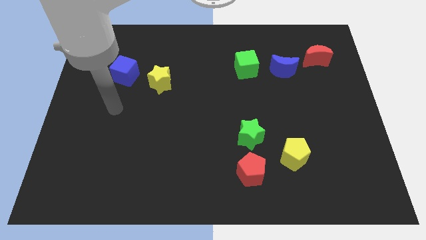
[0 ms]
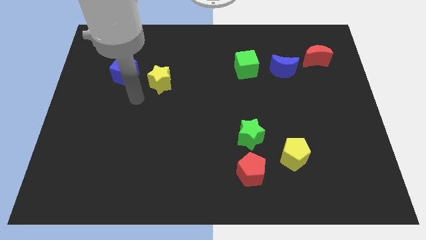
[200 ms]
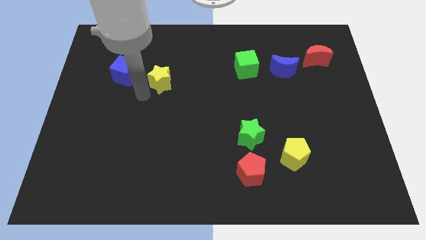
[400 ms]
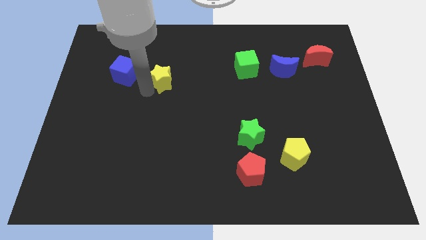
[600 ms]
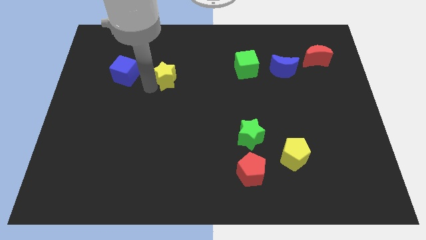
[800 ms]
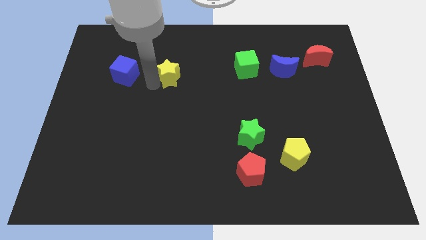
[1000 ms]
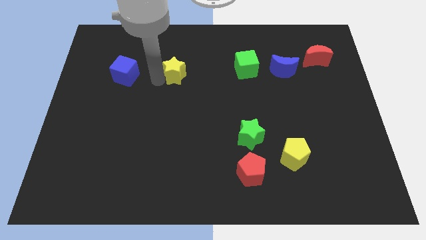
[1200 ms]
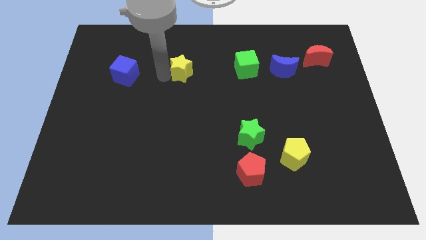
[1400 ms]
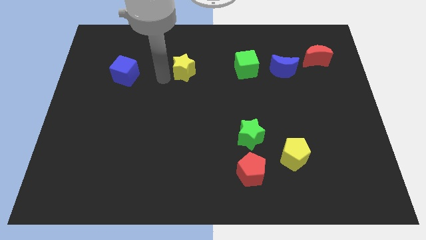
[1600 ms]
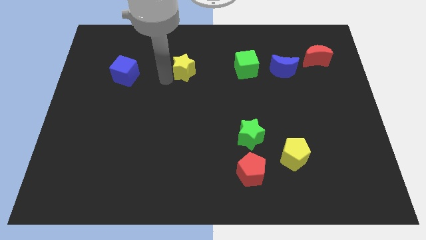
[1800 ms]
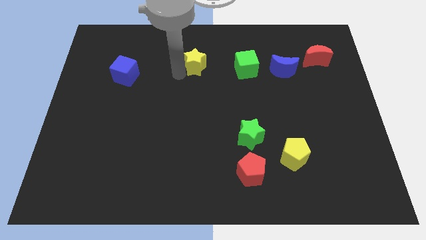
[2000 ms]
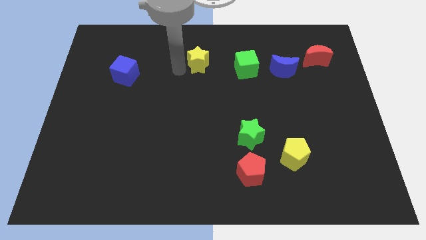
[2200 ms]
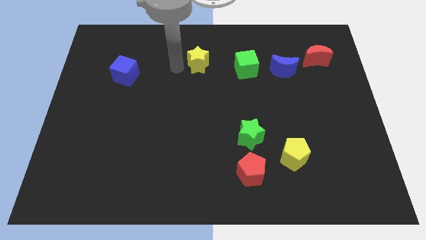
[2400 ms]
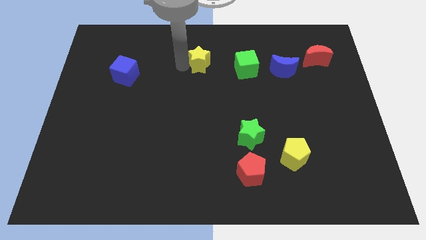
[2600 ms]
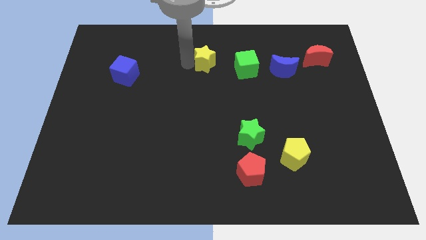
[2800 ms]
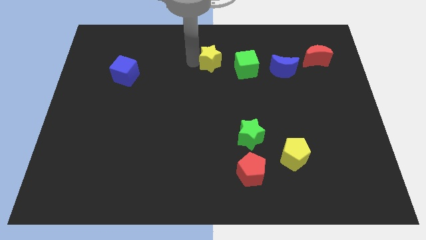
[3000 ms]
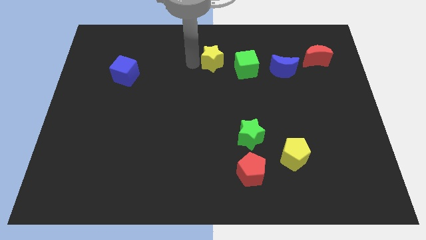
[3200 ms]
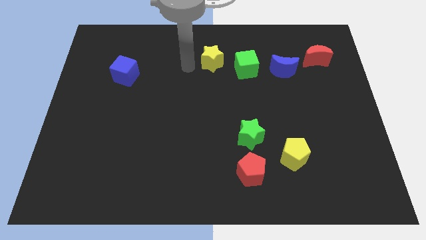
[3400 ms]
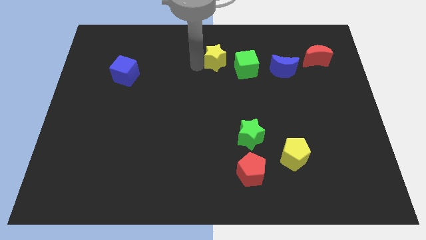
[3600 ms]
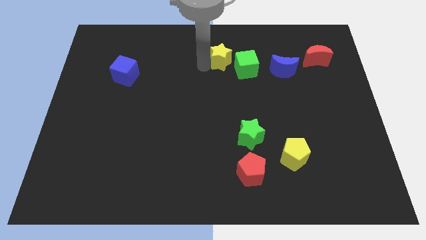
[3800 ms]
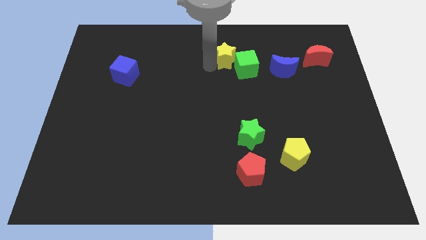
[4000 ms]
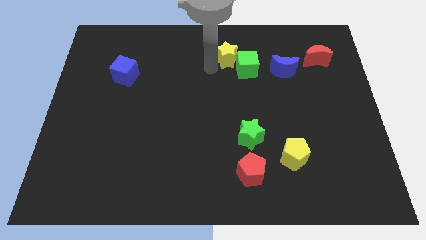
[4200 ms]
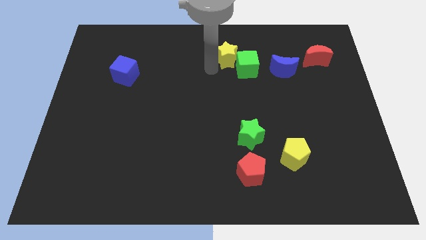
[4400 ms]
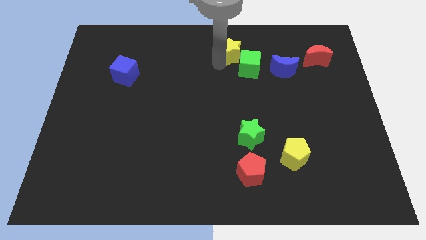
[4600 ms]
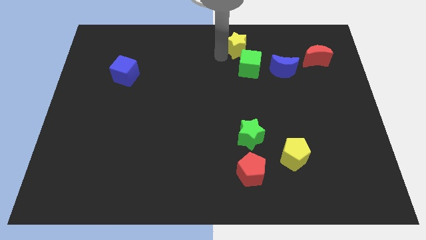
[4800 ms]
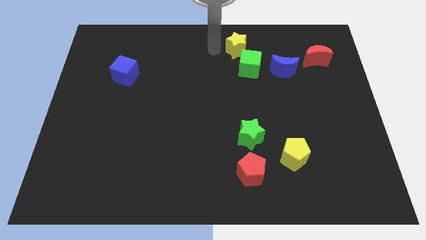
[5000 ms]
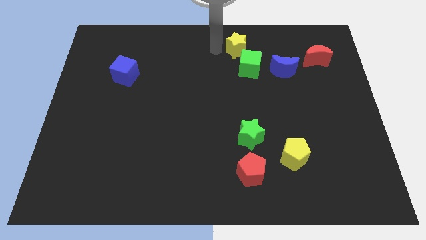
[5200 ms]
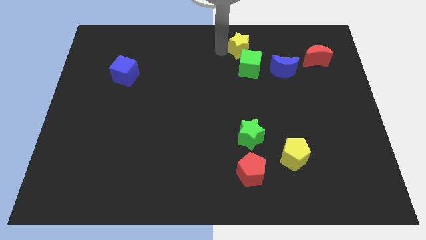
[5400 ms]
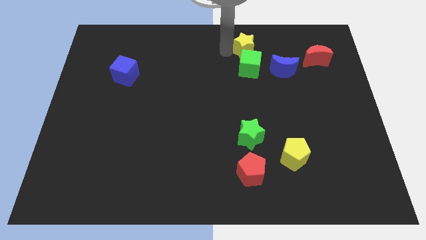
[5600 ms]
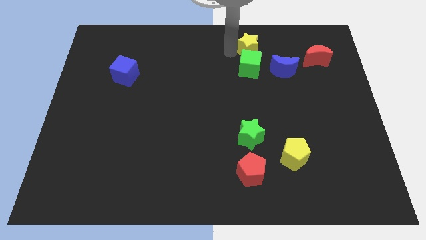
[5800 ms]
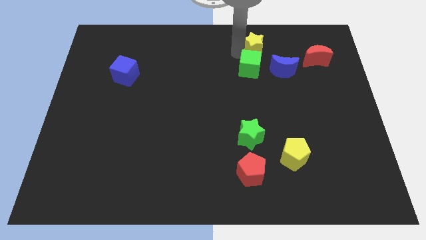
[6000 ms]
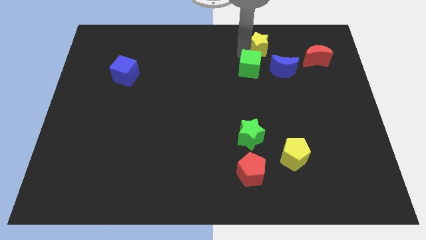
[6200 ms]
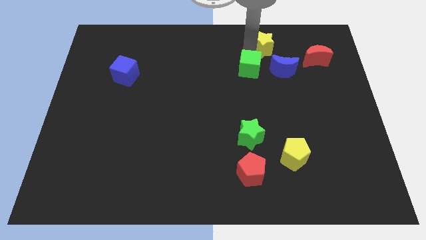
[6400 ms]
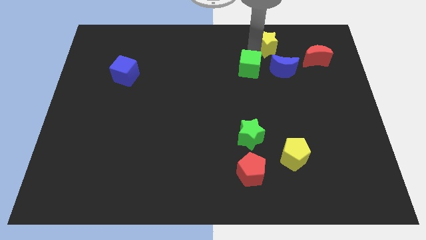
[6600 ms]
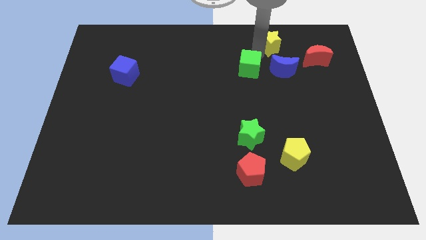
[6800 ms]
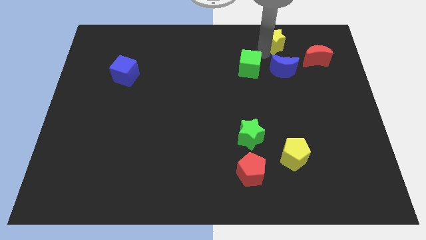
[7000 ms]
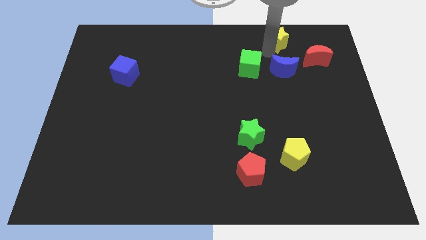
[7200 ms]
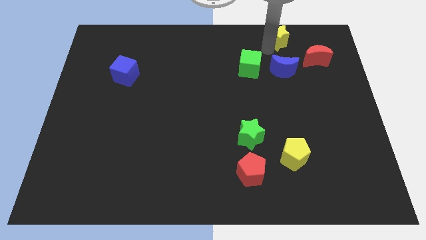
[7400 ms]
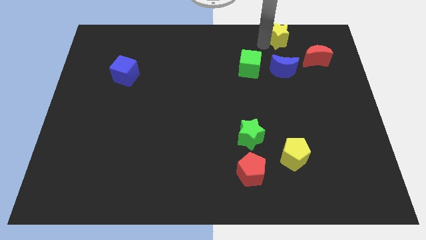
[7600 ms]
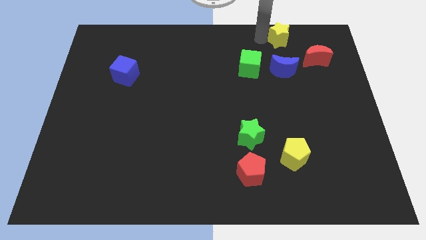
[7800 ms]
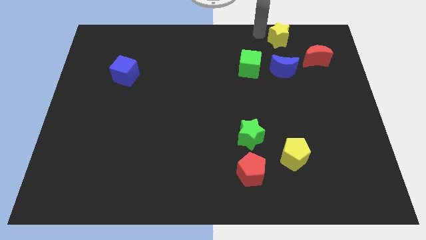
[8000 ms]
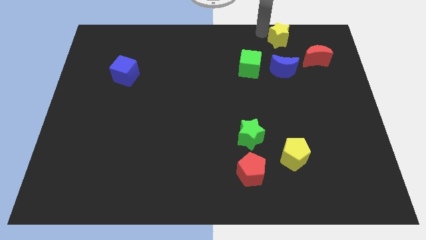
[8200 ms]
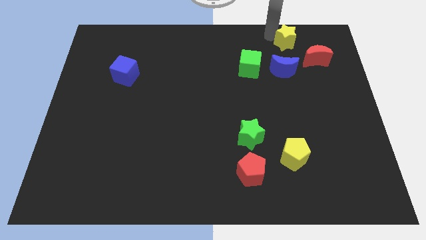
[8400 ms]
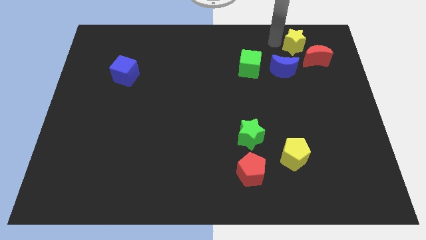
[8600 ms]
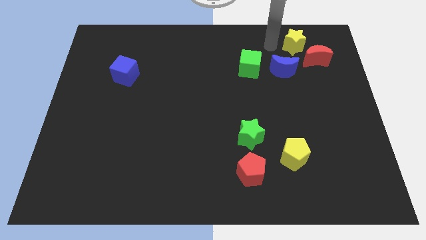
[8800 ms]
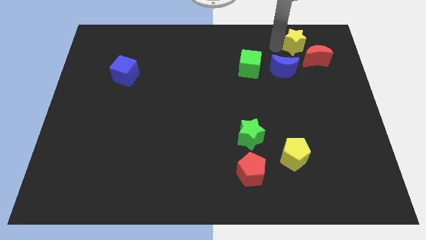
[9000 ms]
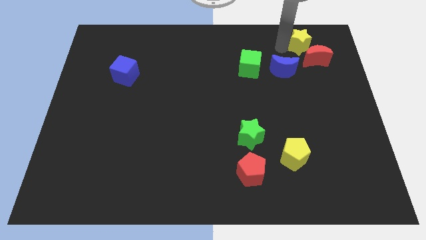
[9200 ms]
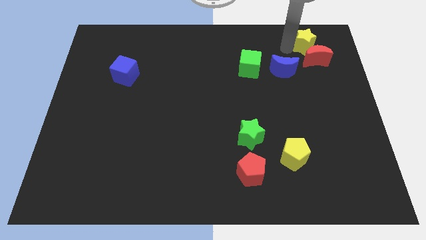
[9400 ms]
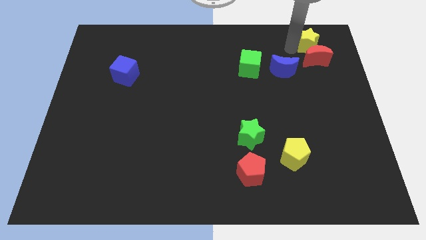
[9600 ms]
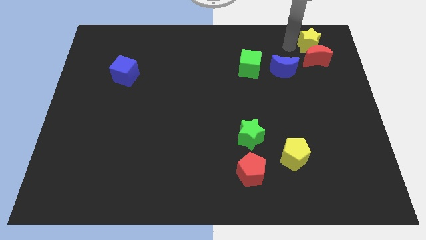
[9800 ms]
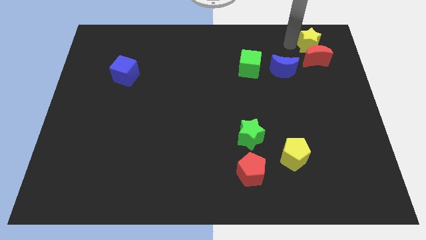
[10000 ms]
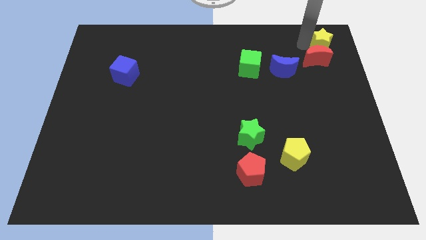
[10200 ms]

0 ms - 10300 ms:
move the yellow star to the upper right corner

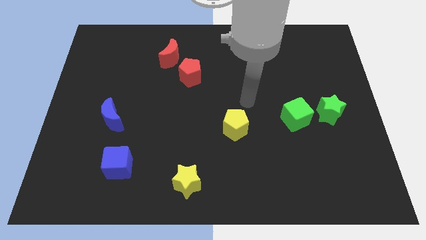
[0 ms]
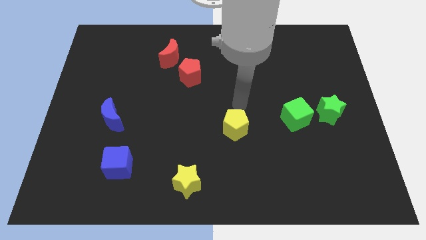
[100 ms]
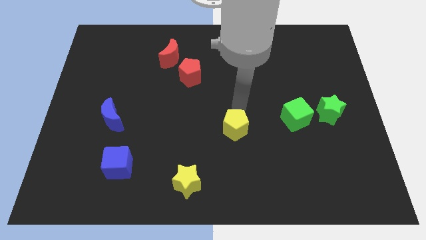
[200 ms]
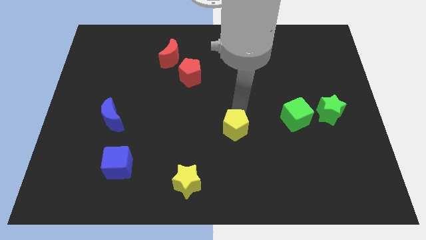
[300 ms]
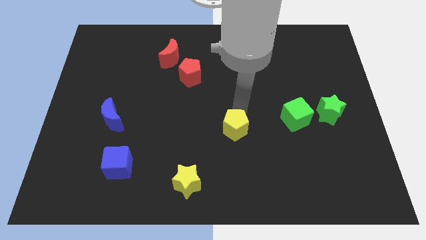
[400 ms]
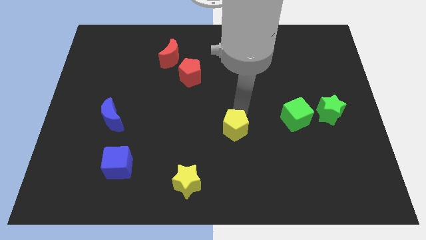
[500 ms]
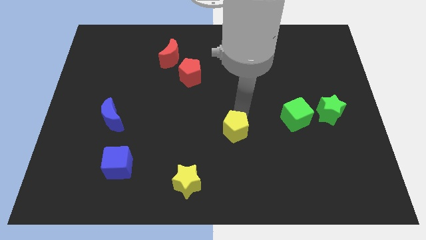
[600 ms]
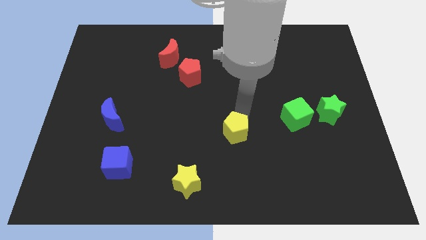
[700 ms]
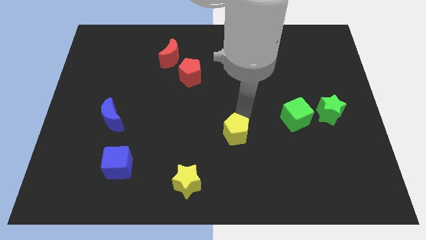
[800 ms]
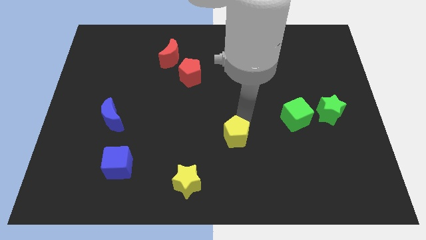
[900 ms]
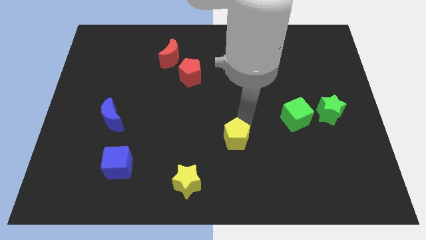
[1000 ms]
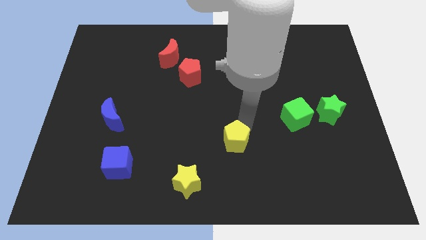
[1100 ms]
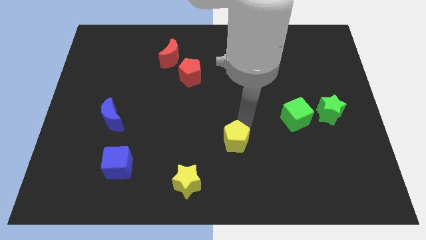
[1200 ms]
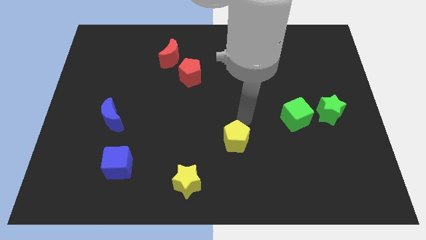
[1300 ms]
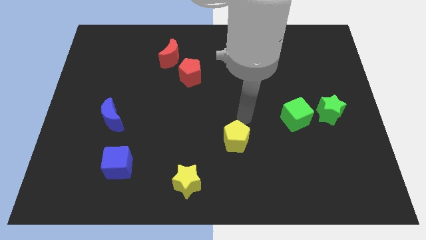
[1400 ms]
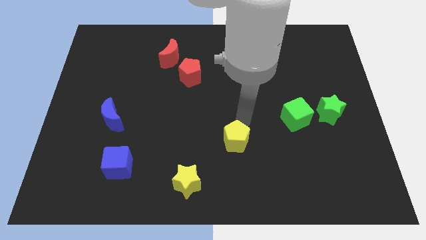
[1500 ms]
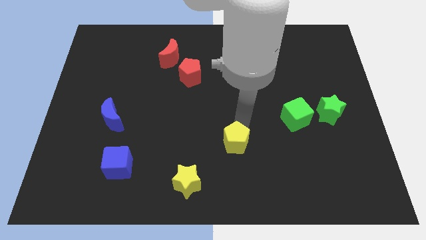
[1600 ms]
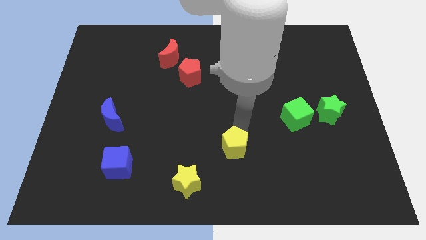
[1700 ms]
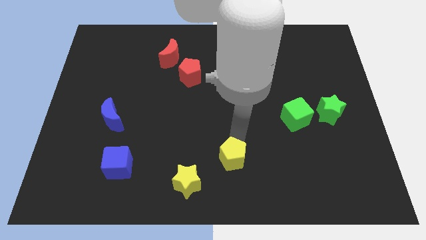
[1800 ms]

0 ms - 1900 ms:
move the yellow pentagon to the bottom side

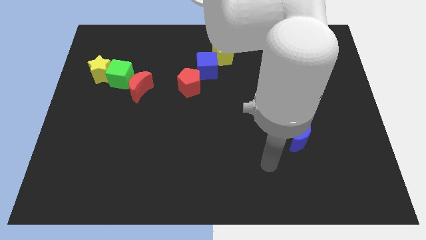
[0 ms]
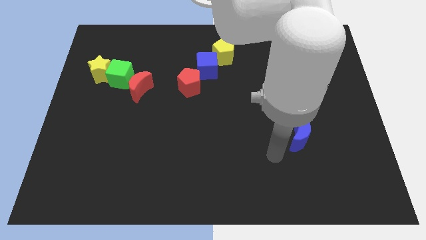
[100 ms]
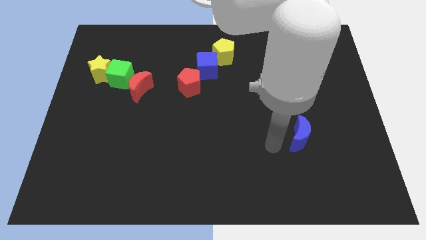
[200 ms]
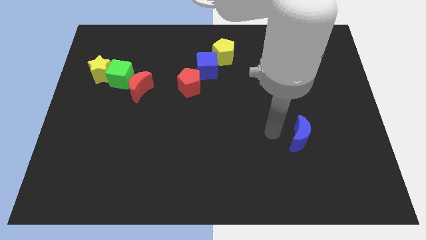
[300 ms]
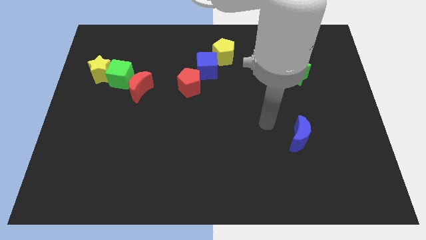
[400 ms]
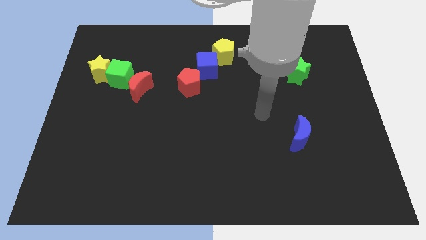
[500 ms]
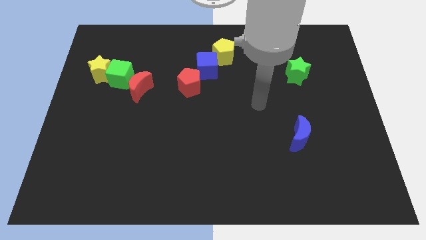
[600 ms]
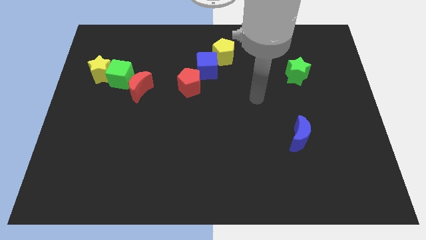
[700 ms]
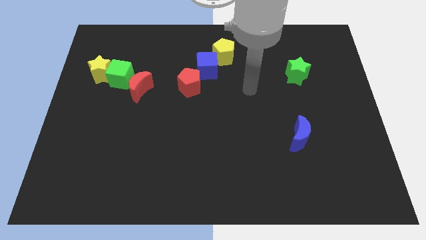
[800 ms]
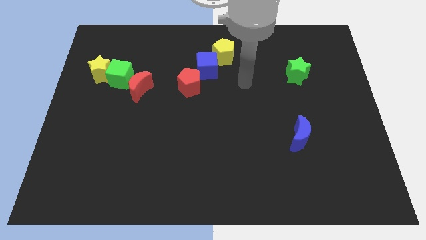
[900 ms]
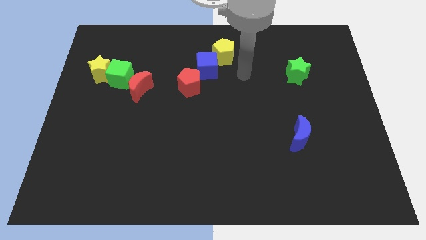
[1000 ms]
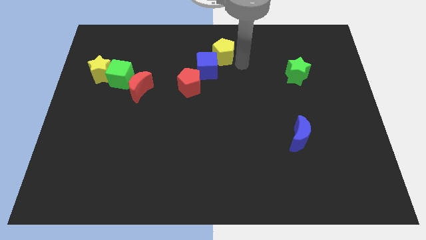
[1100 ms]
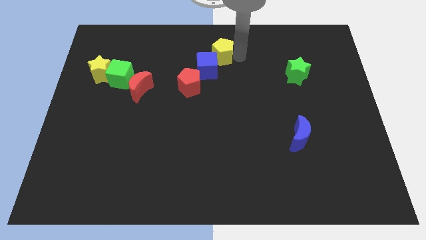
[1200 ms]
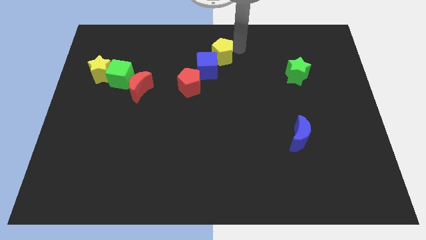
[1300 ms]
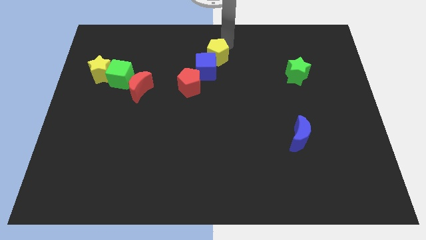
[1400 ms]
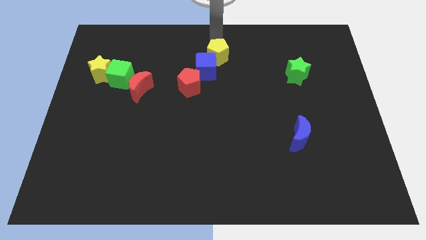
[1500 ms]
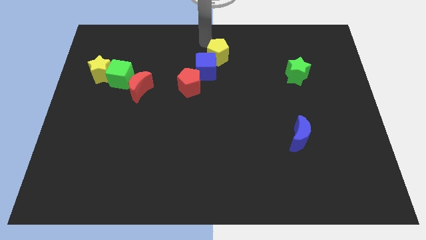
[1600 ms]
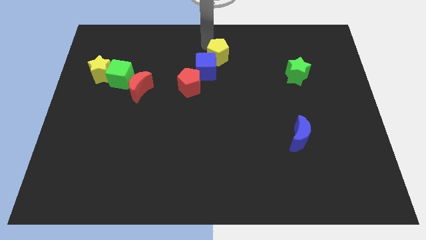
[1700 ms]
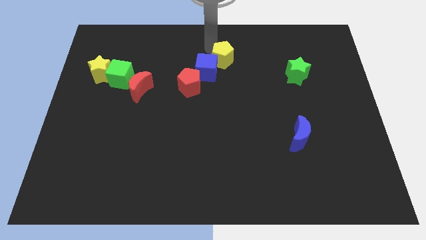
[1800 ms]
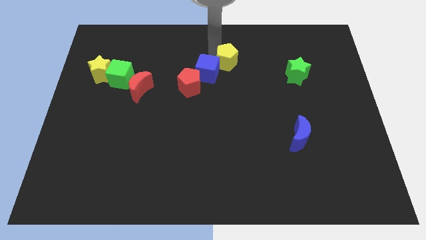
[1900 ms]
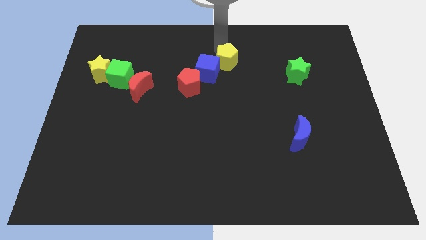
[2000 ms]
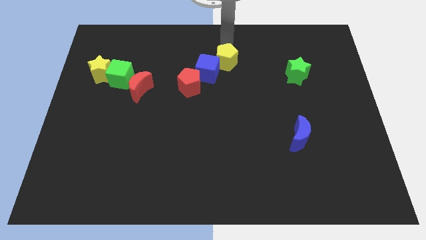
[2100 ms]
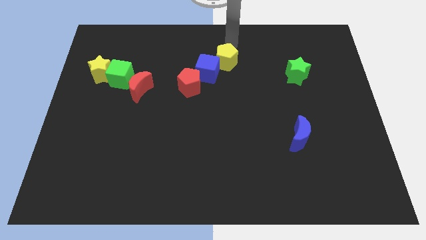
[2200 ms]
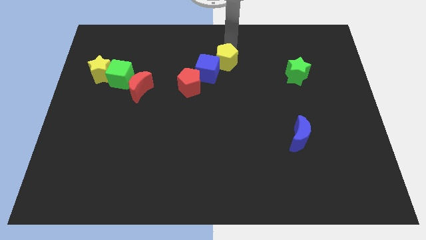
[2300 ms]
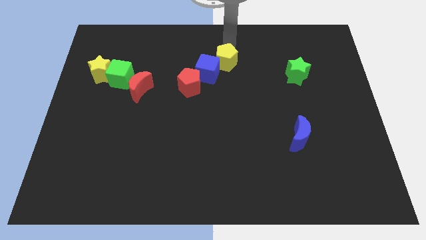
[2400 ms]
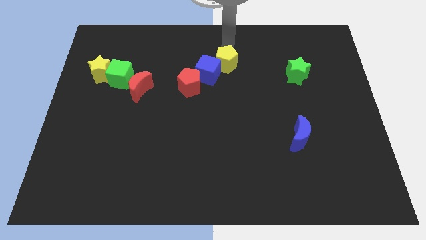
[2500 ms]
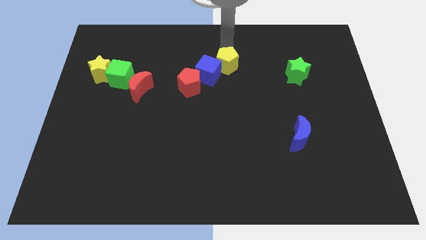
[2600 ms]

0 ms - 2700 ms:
push the yellow pentagon to the center
